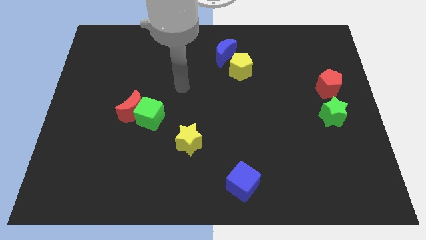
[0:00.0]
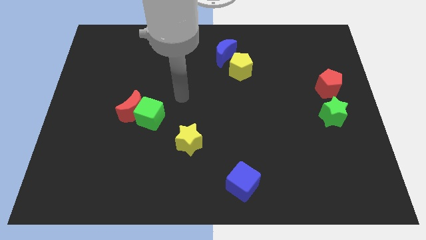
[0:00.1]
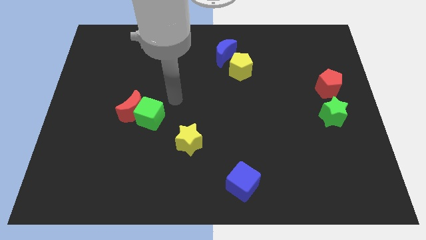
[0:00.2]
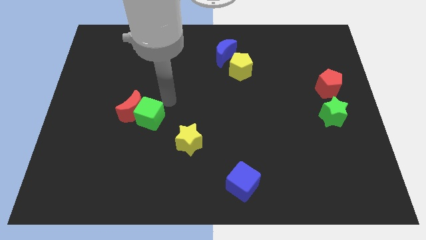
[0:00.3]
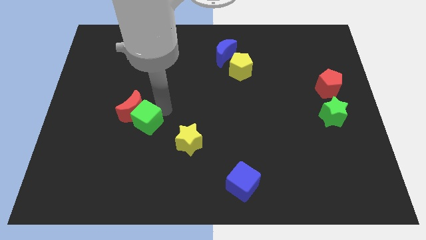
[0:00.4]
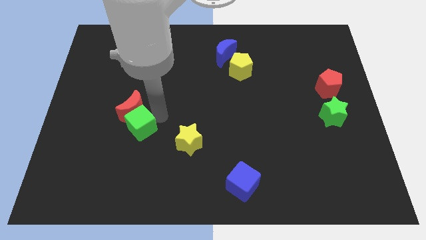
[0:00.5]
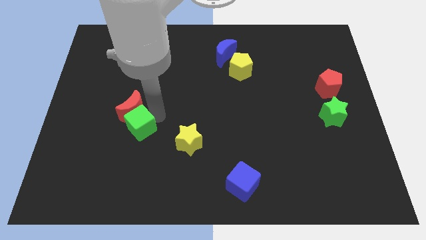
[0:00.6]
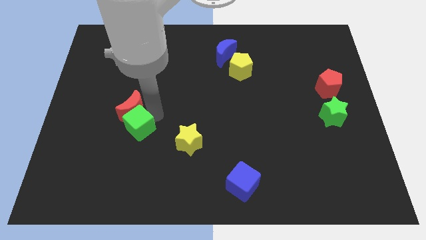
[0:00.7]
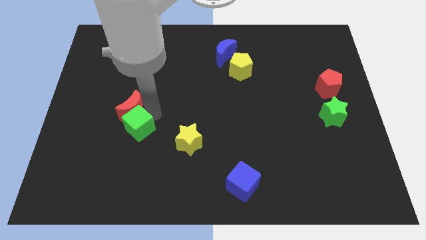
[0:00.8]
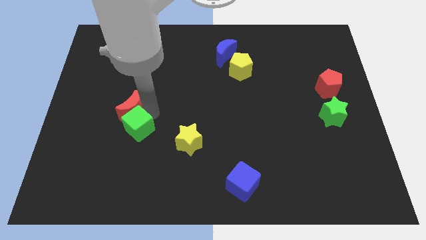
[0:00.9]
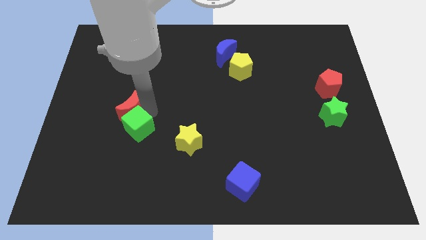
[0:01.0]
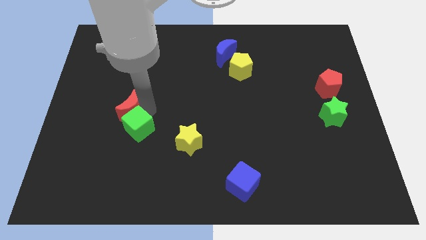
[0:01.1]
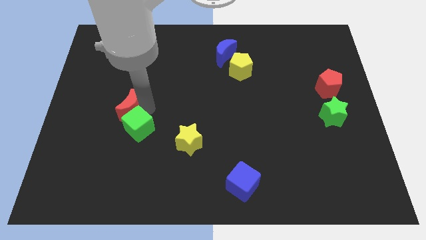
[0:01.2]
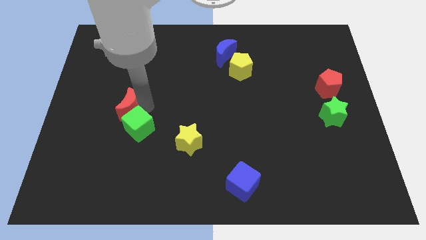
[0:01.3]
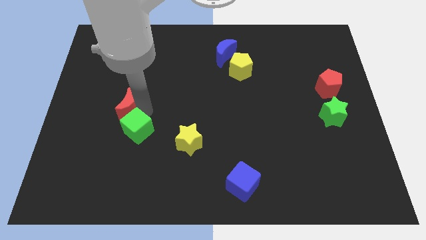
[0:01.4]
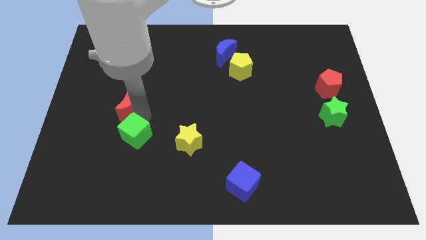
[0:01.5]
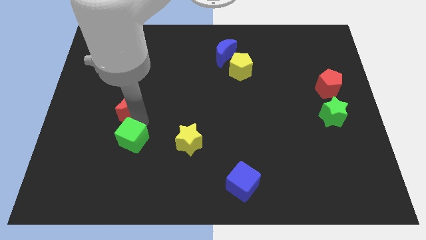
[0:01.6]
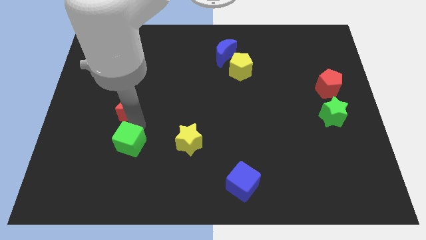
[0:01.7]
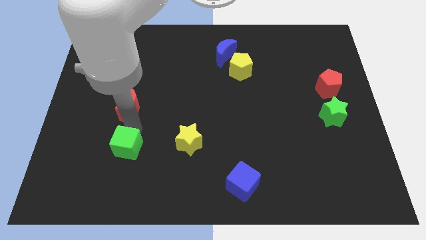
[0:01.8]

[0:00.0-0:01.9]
separate the red moon from the green cube

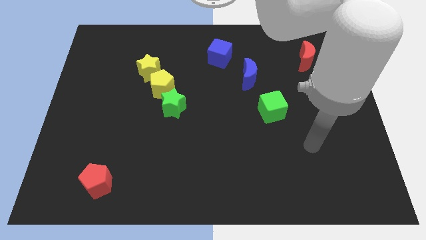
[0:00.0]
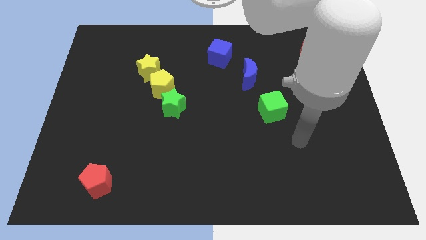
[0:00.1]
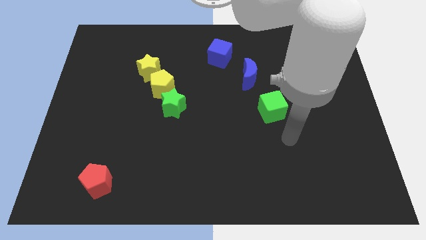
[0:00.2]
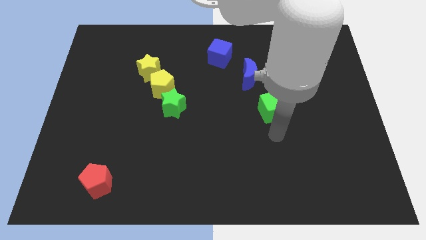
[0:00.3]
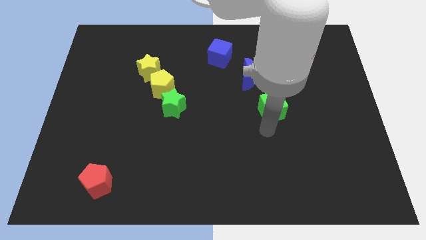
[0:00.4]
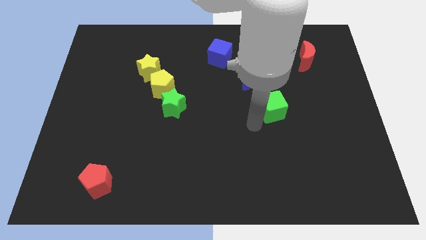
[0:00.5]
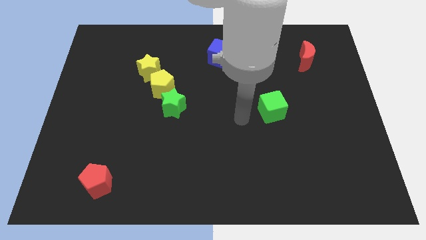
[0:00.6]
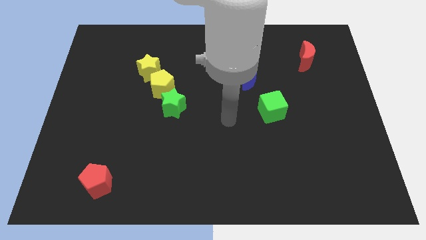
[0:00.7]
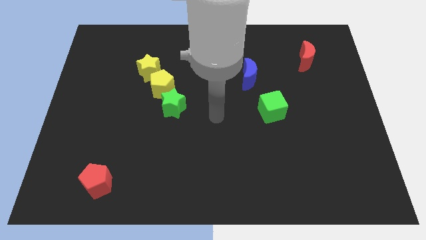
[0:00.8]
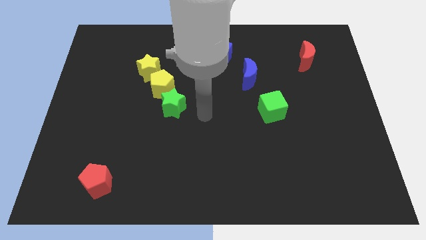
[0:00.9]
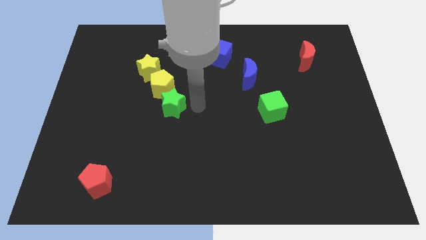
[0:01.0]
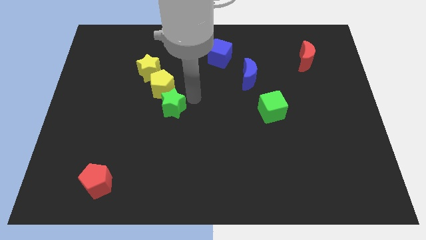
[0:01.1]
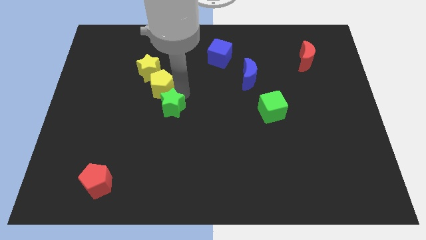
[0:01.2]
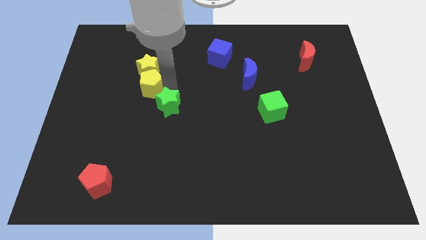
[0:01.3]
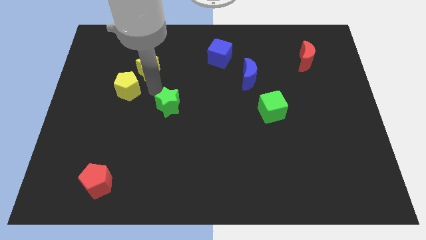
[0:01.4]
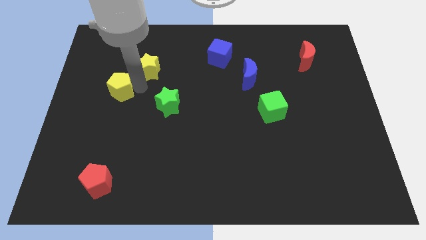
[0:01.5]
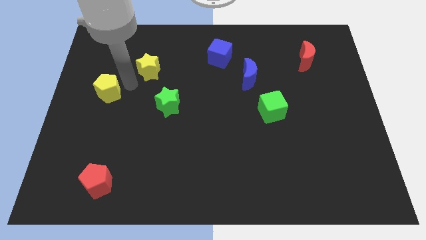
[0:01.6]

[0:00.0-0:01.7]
pull the yellow star apart from the yellow pentagon

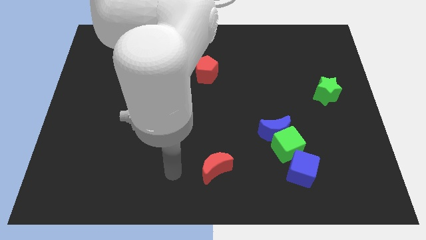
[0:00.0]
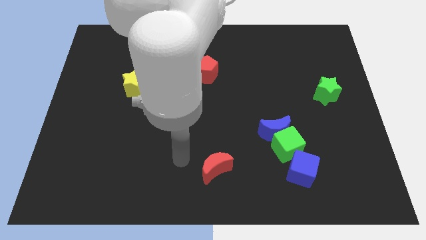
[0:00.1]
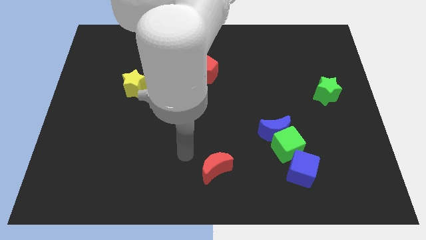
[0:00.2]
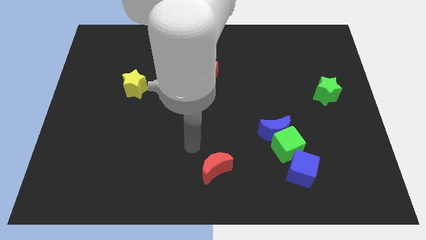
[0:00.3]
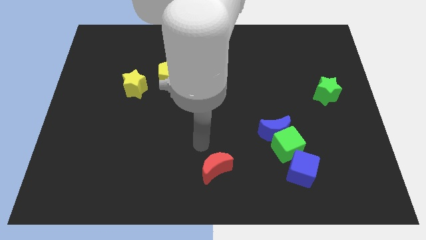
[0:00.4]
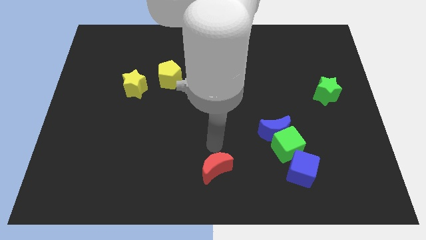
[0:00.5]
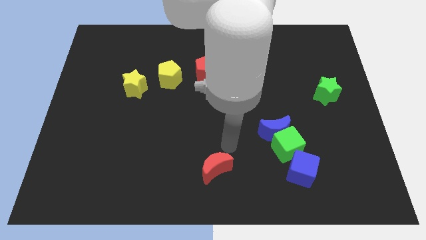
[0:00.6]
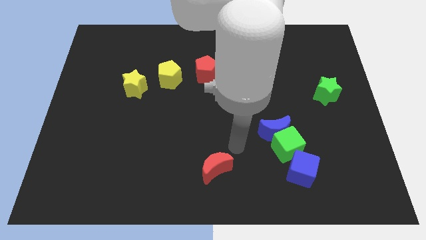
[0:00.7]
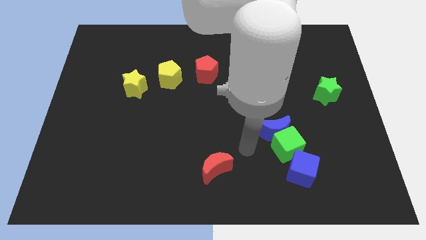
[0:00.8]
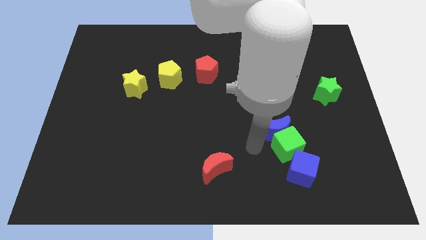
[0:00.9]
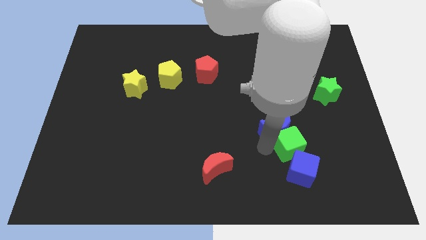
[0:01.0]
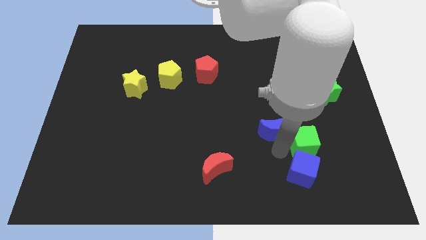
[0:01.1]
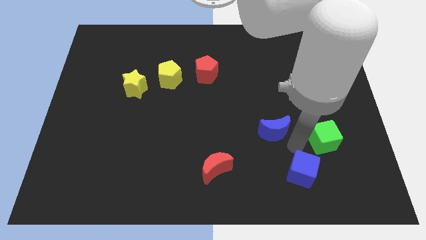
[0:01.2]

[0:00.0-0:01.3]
move the blue moon away from the green cube

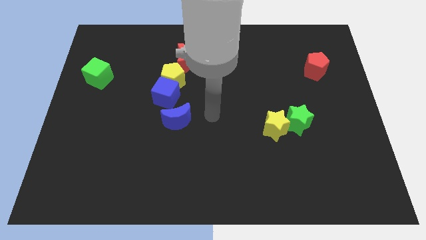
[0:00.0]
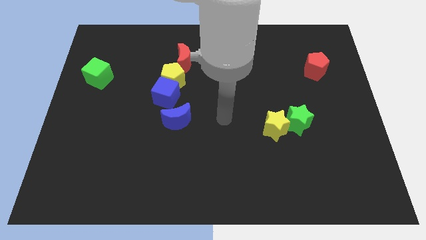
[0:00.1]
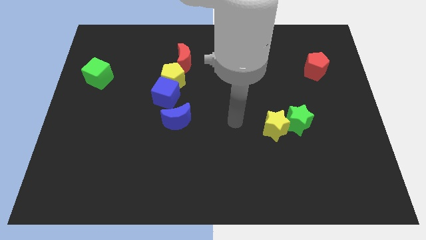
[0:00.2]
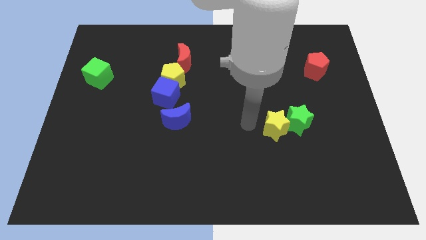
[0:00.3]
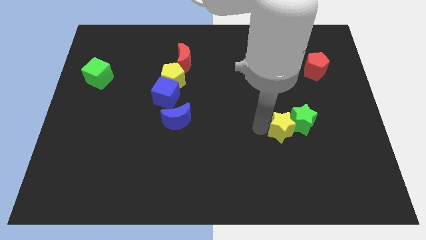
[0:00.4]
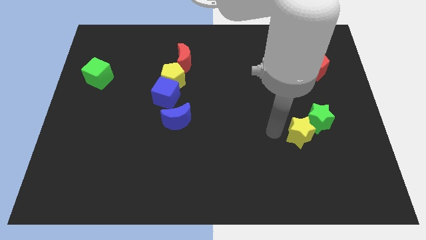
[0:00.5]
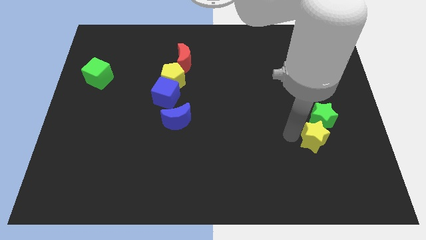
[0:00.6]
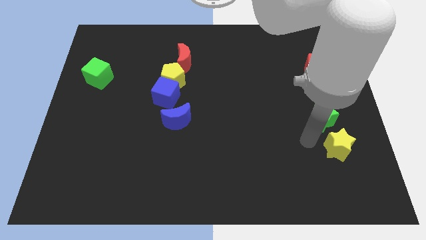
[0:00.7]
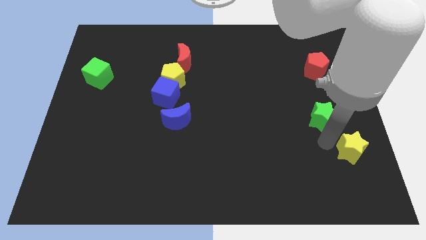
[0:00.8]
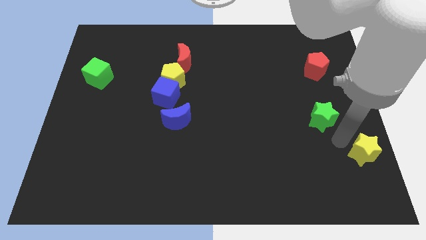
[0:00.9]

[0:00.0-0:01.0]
move the green star away from the yellow star

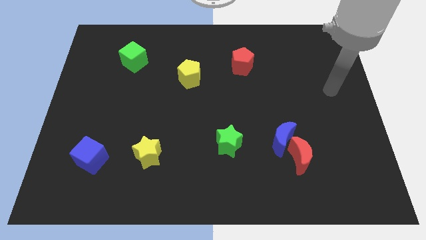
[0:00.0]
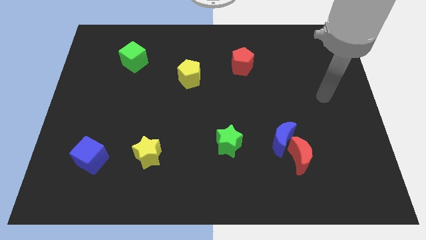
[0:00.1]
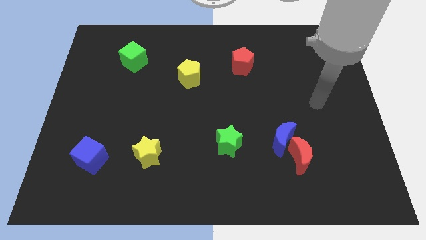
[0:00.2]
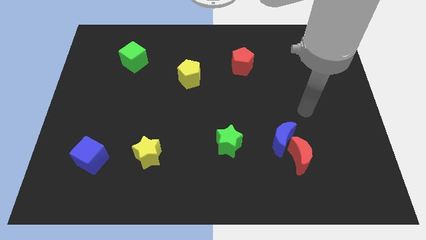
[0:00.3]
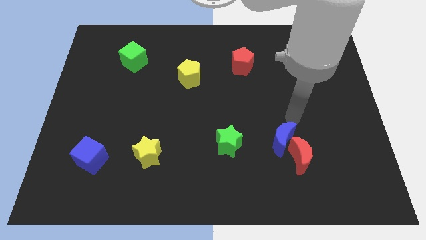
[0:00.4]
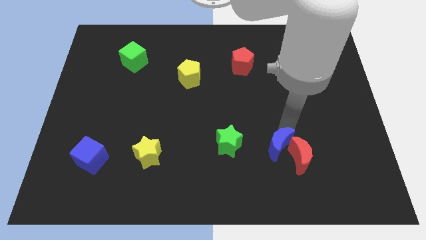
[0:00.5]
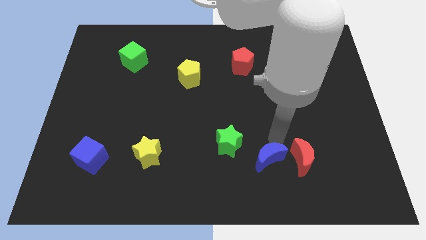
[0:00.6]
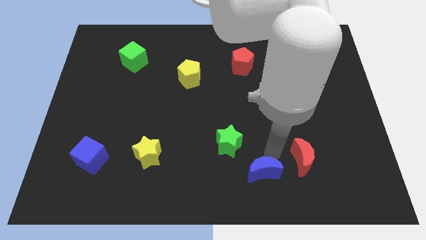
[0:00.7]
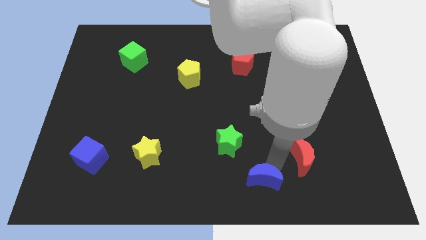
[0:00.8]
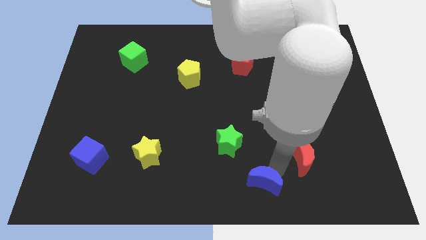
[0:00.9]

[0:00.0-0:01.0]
move the red moon away from the blue moon

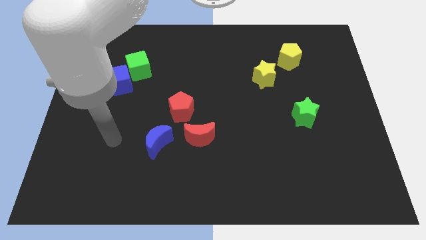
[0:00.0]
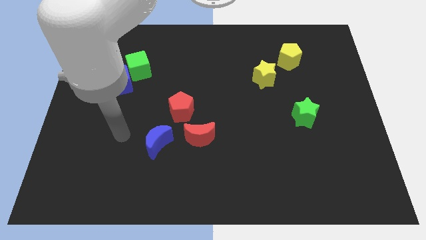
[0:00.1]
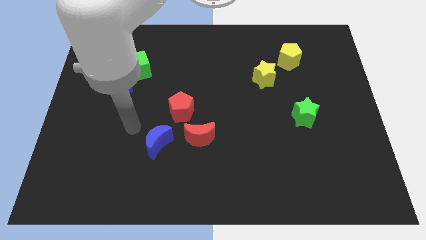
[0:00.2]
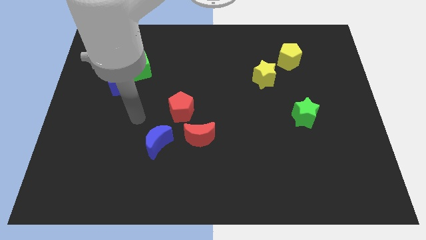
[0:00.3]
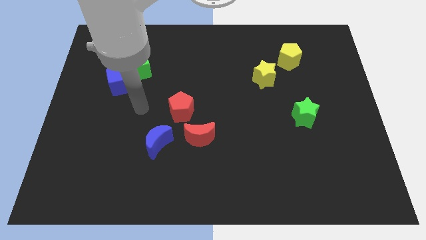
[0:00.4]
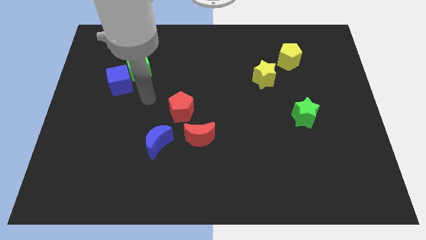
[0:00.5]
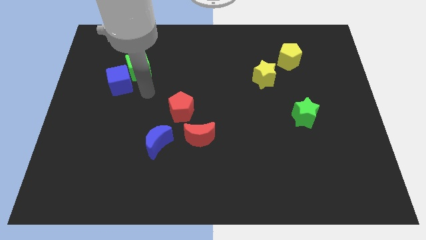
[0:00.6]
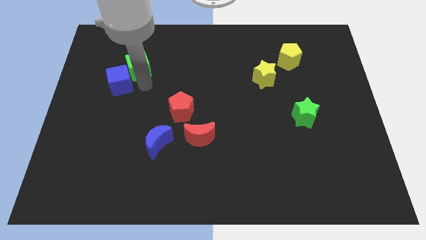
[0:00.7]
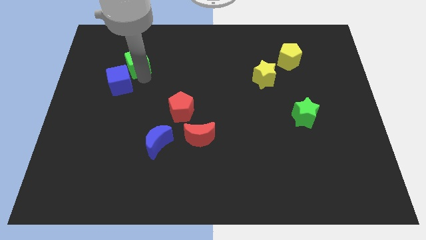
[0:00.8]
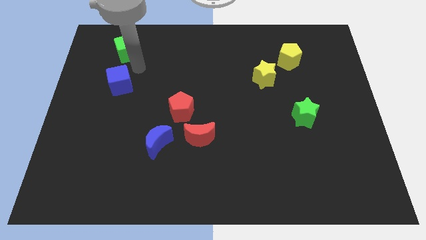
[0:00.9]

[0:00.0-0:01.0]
move the blue cube away from the green cube

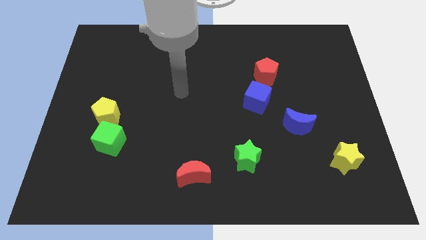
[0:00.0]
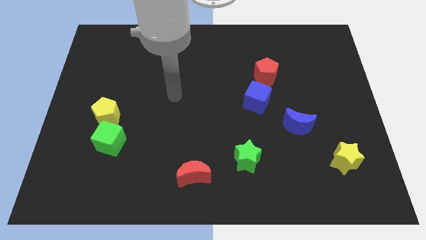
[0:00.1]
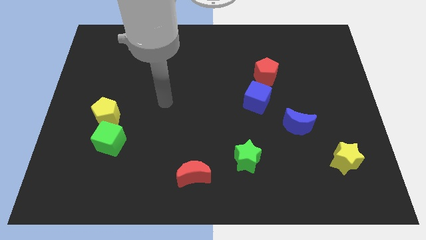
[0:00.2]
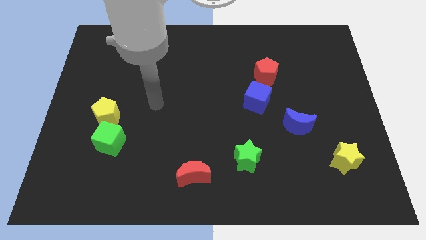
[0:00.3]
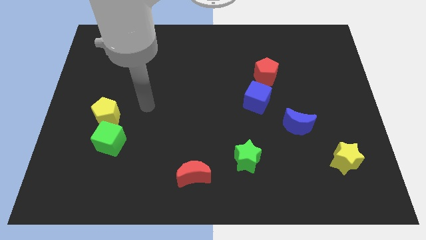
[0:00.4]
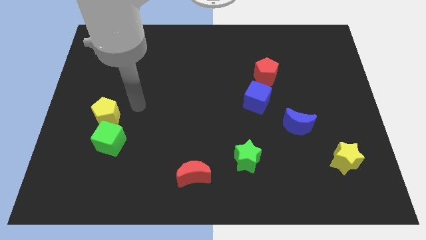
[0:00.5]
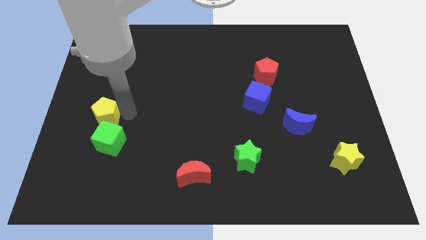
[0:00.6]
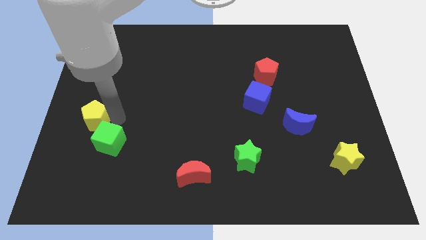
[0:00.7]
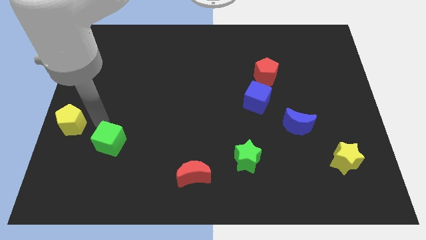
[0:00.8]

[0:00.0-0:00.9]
separate the green cube from the yellow pentagon

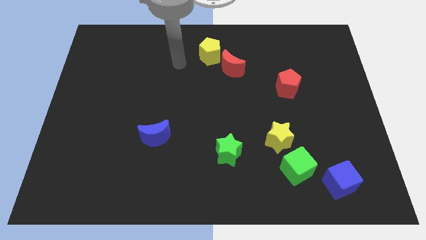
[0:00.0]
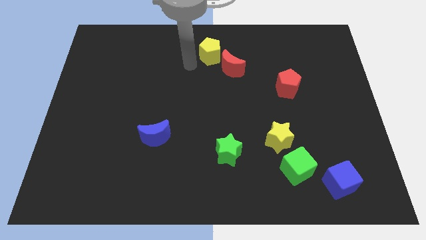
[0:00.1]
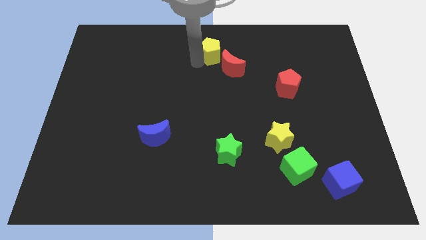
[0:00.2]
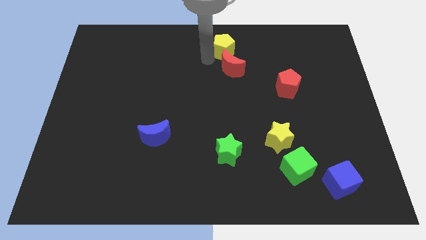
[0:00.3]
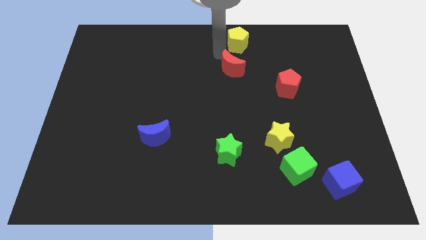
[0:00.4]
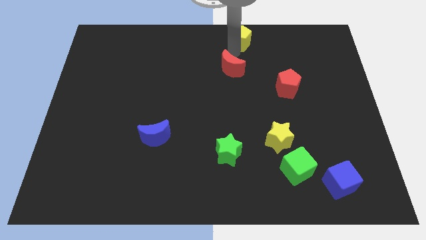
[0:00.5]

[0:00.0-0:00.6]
move the red moon away from the yellow pentagon
